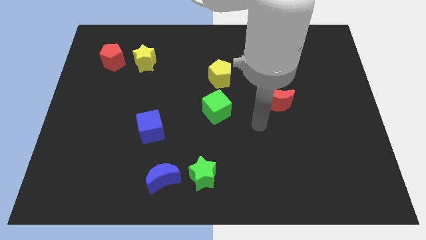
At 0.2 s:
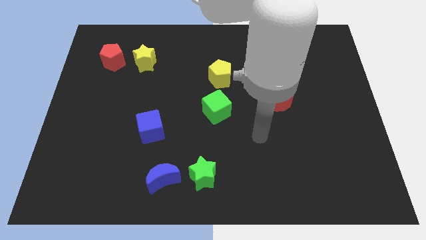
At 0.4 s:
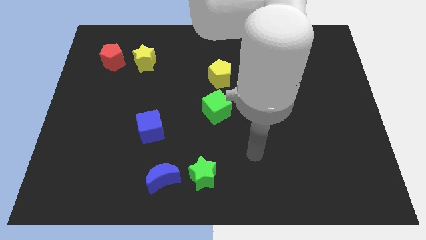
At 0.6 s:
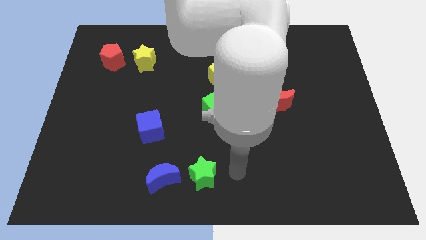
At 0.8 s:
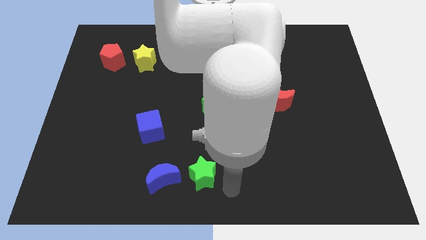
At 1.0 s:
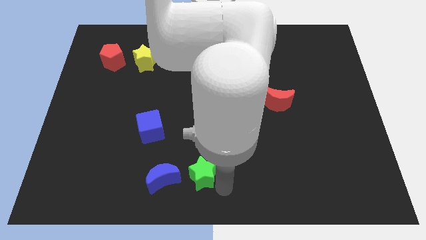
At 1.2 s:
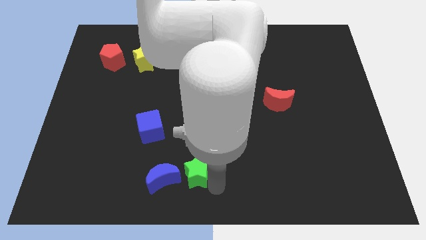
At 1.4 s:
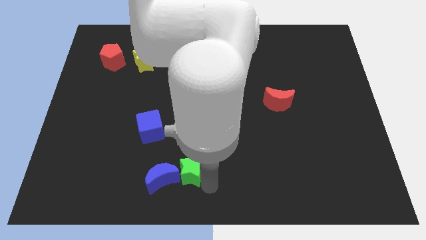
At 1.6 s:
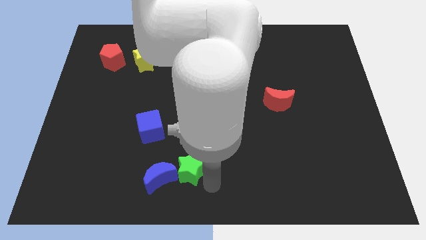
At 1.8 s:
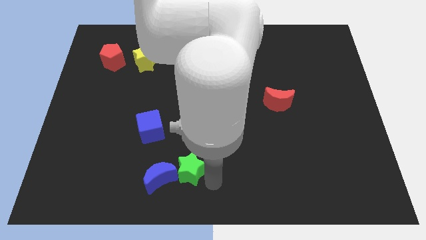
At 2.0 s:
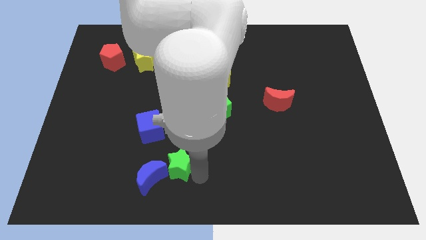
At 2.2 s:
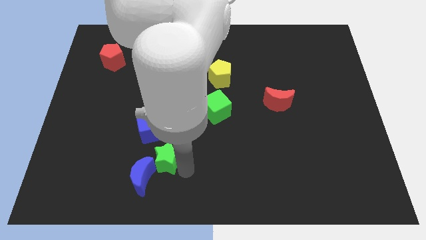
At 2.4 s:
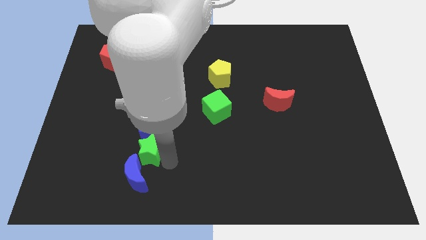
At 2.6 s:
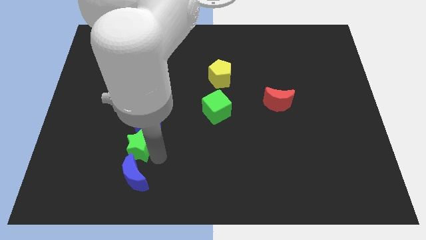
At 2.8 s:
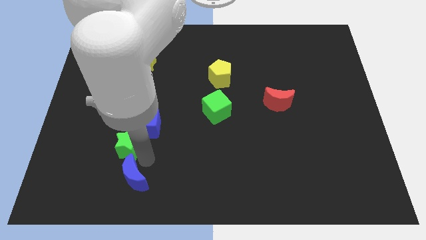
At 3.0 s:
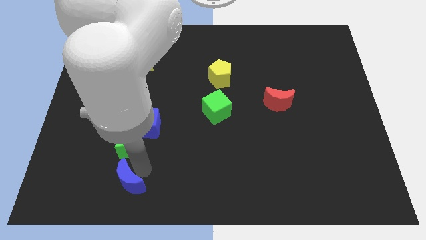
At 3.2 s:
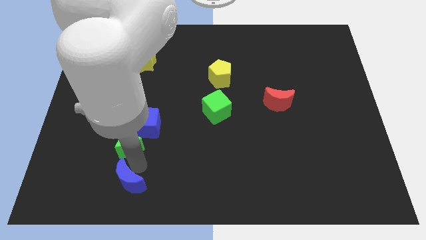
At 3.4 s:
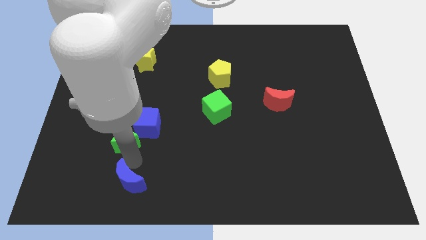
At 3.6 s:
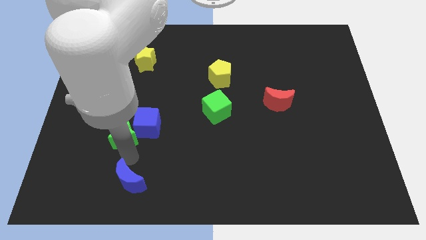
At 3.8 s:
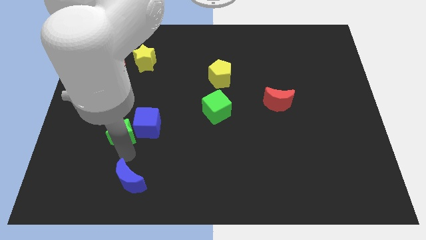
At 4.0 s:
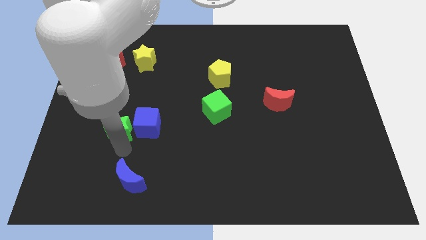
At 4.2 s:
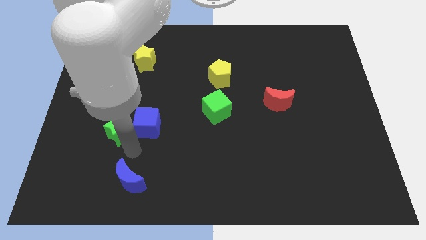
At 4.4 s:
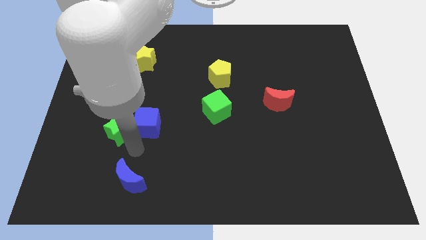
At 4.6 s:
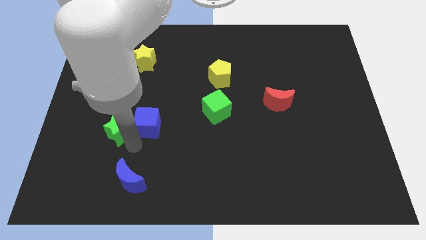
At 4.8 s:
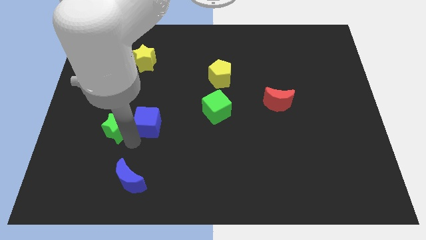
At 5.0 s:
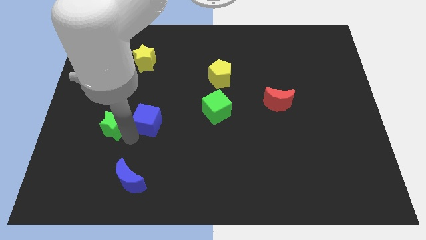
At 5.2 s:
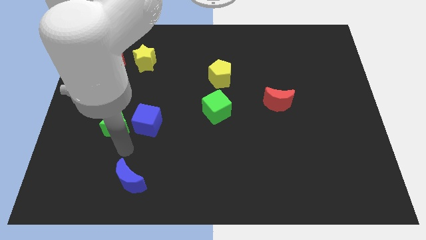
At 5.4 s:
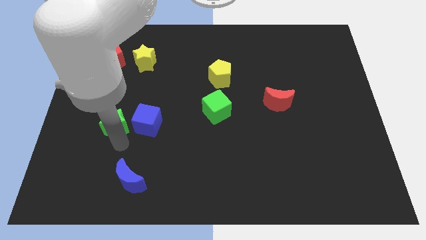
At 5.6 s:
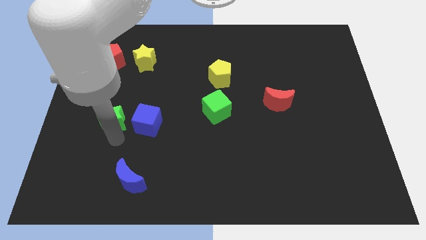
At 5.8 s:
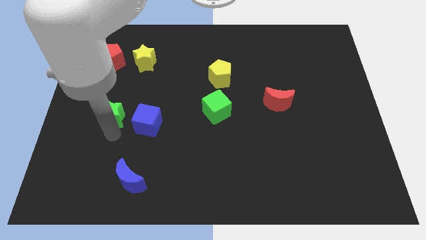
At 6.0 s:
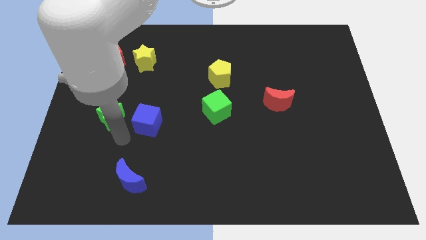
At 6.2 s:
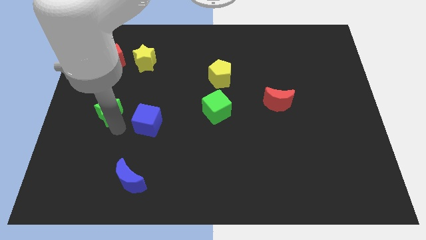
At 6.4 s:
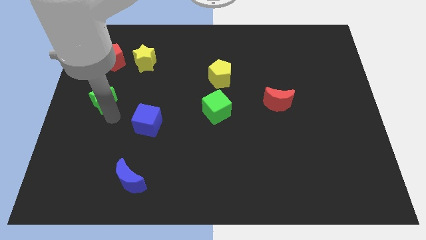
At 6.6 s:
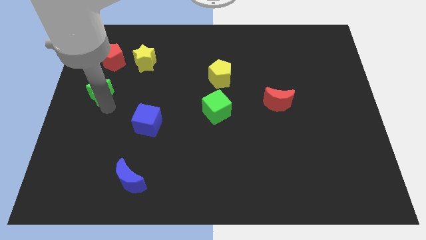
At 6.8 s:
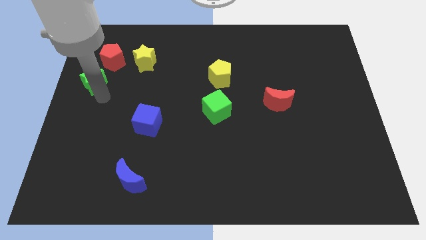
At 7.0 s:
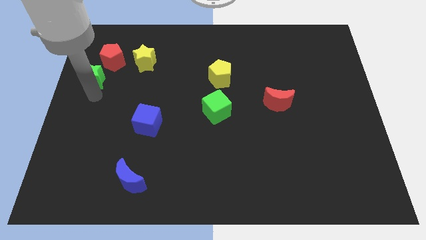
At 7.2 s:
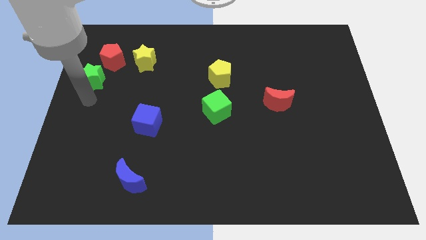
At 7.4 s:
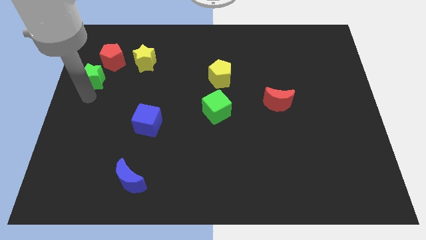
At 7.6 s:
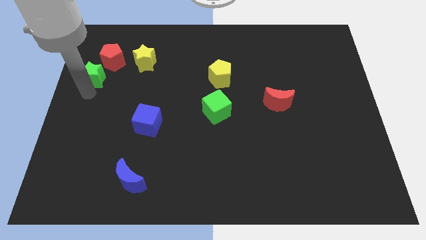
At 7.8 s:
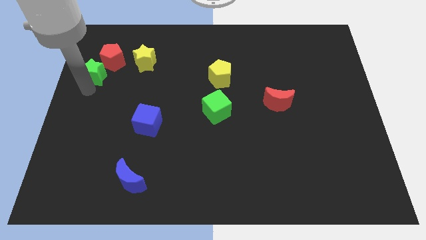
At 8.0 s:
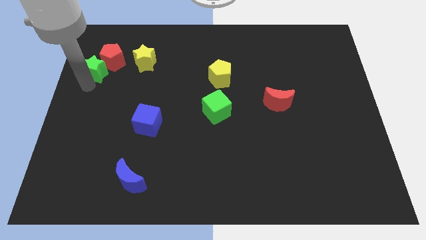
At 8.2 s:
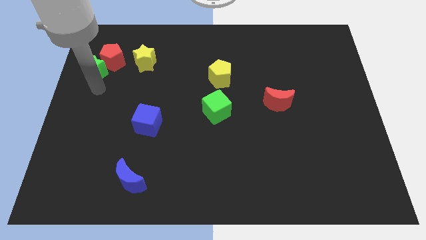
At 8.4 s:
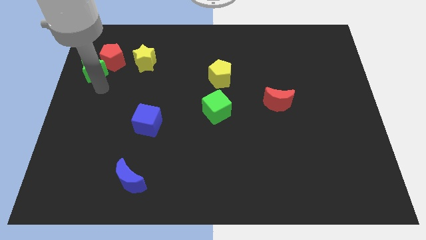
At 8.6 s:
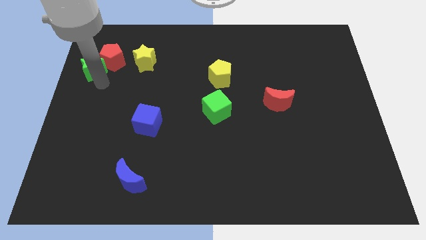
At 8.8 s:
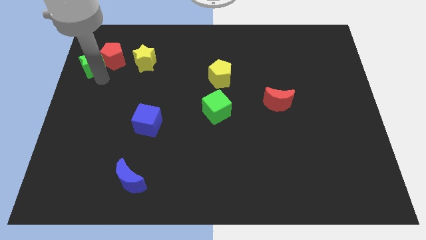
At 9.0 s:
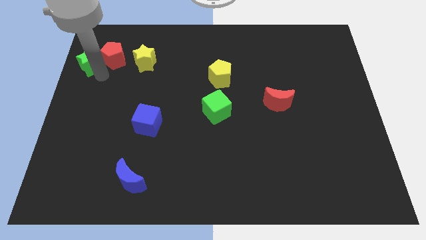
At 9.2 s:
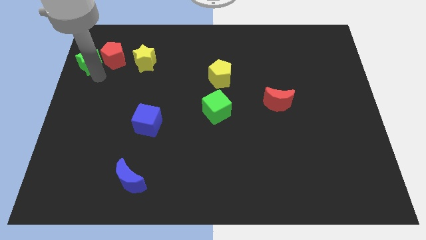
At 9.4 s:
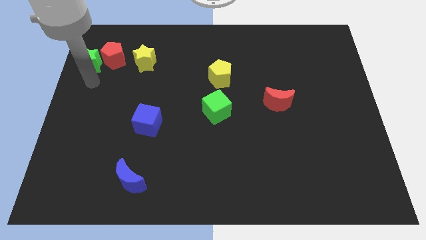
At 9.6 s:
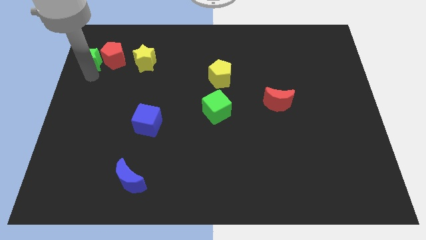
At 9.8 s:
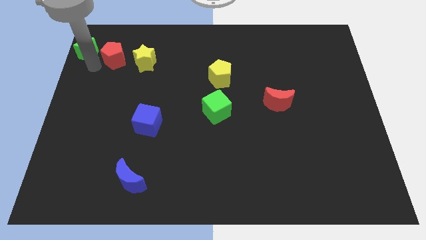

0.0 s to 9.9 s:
push the green star to the top left of the board

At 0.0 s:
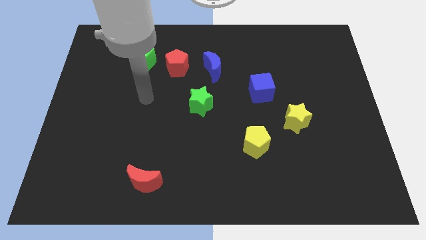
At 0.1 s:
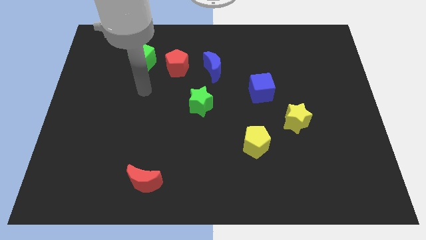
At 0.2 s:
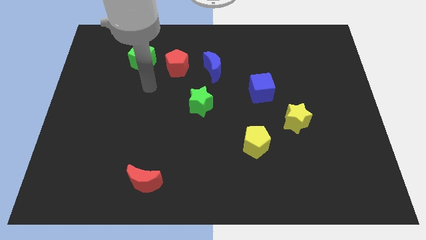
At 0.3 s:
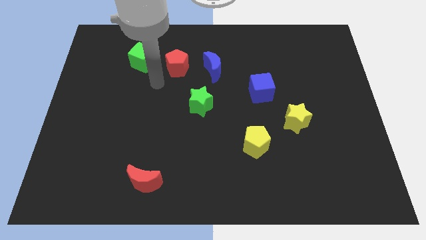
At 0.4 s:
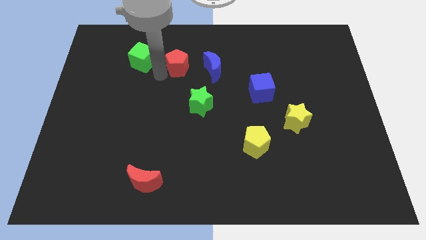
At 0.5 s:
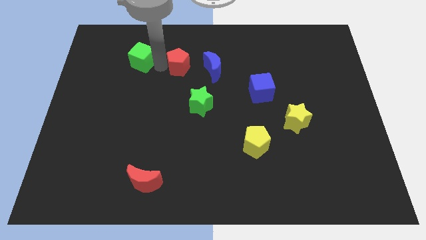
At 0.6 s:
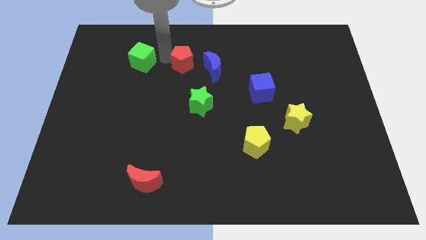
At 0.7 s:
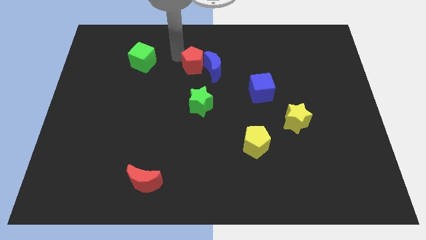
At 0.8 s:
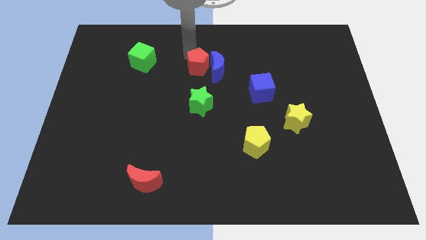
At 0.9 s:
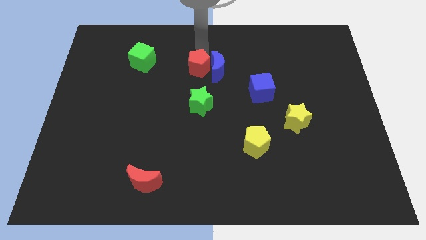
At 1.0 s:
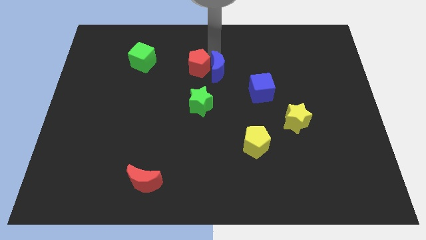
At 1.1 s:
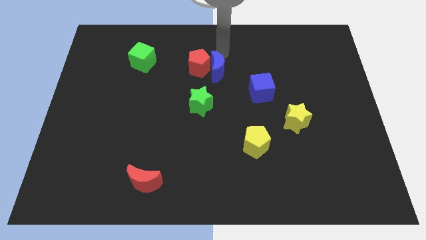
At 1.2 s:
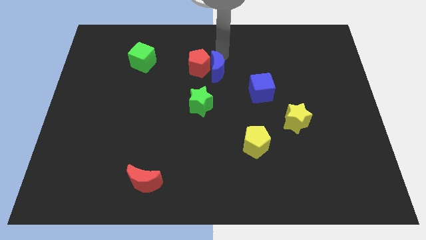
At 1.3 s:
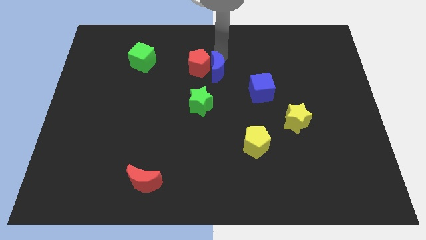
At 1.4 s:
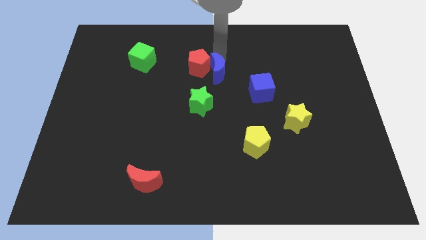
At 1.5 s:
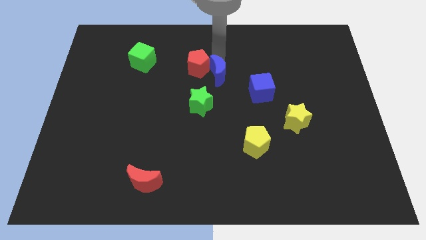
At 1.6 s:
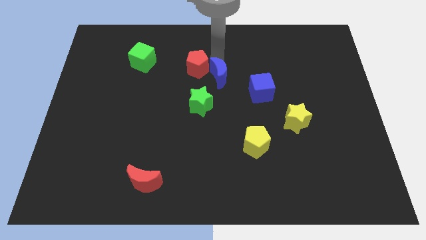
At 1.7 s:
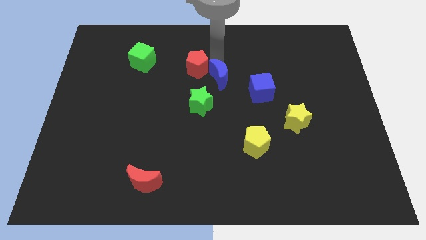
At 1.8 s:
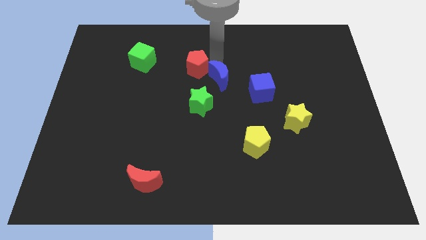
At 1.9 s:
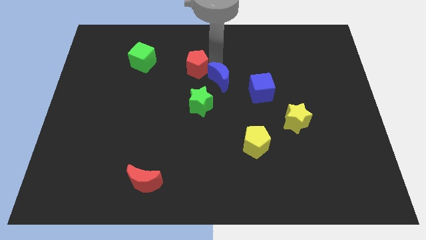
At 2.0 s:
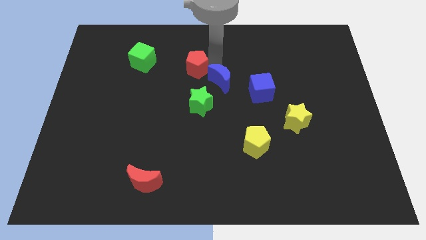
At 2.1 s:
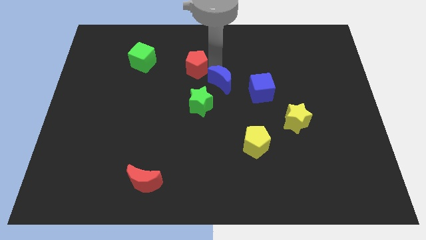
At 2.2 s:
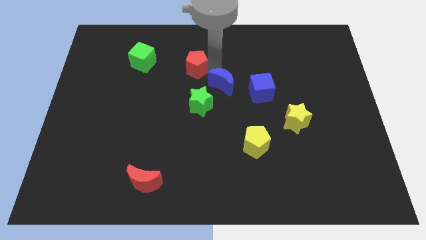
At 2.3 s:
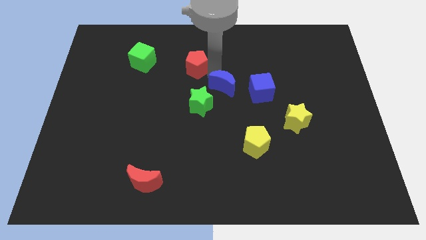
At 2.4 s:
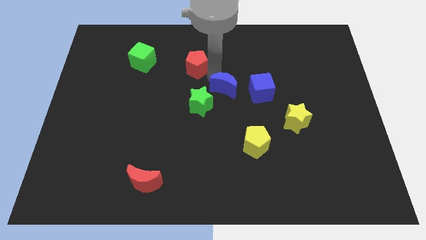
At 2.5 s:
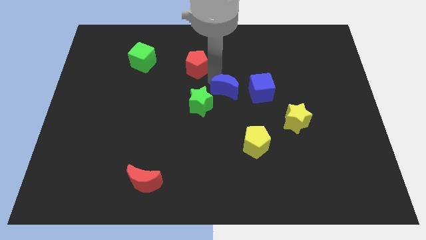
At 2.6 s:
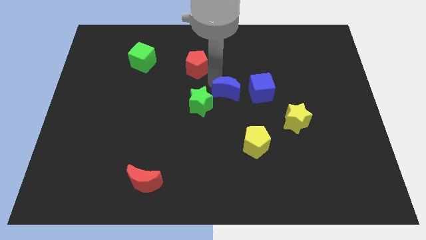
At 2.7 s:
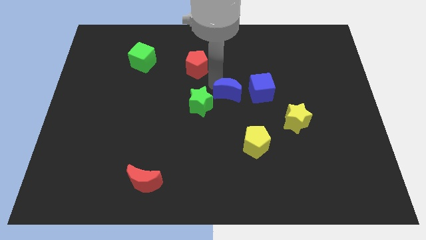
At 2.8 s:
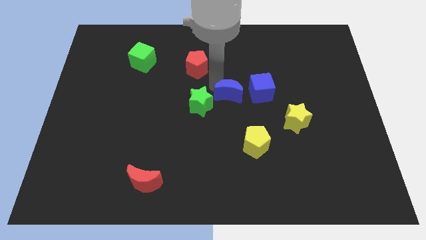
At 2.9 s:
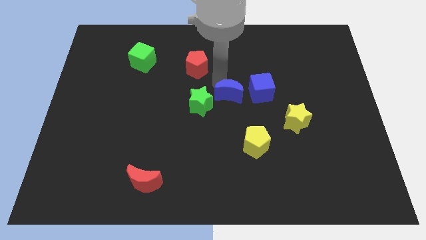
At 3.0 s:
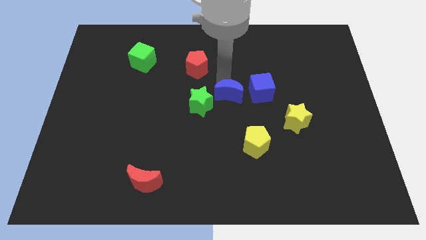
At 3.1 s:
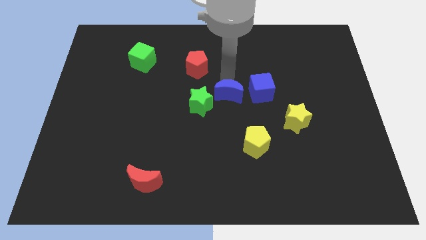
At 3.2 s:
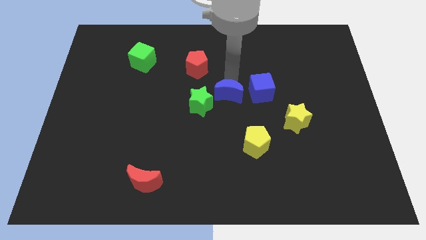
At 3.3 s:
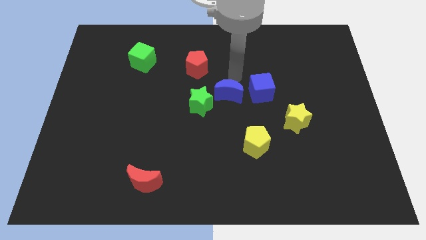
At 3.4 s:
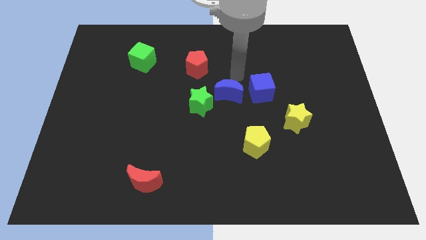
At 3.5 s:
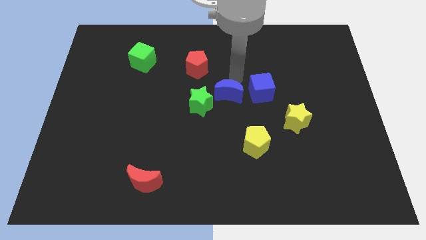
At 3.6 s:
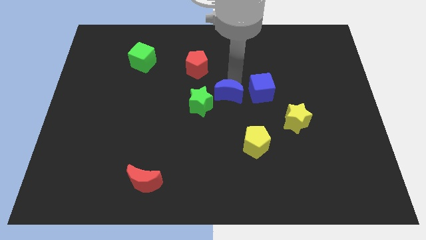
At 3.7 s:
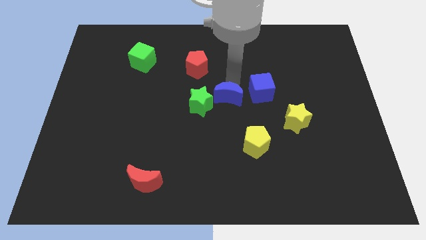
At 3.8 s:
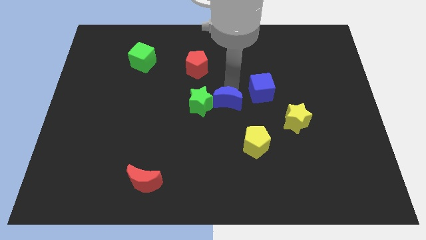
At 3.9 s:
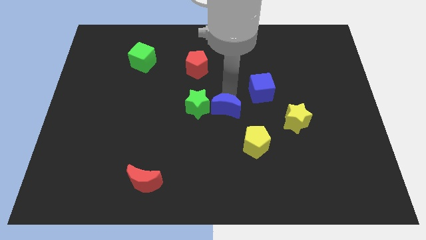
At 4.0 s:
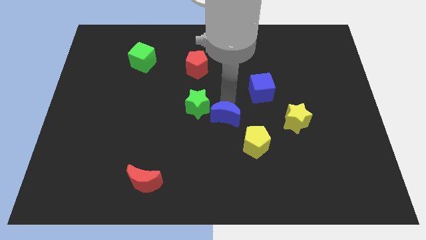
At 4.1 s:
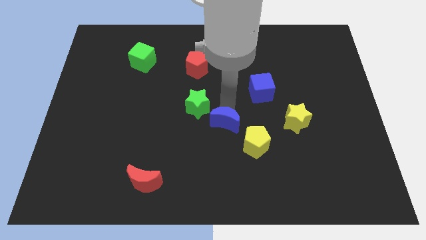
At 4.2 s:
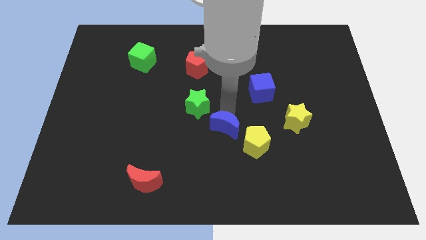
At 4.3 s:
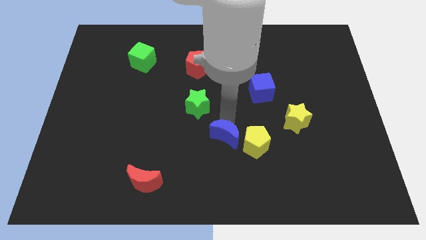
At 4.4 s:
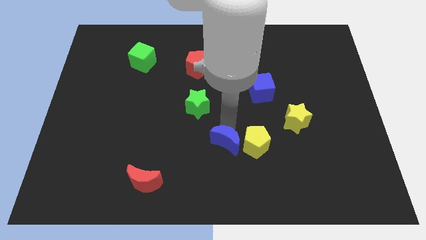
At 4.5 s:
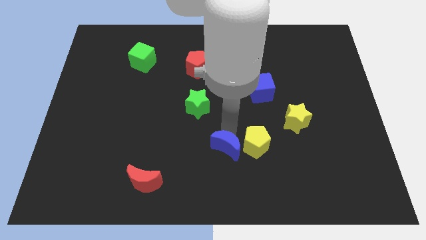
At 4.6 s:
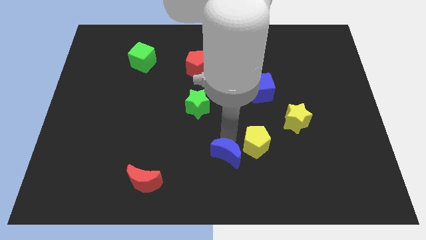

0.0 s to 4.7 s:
move the blue moon to the bottom
